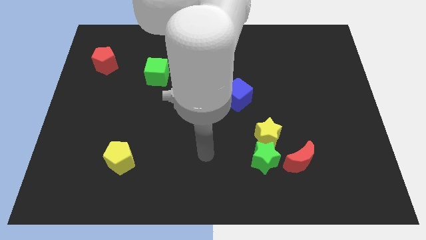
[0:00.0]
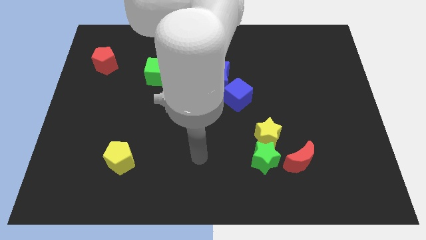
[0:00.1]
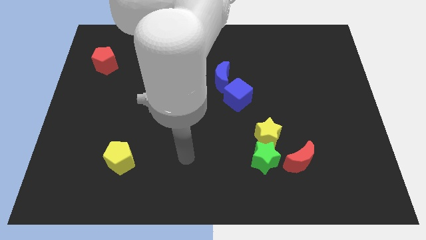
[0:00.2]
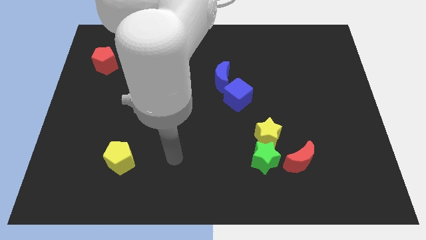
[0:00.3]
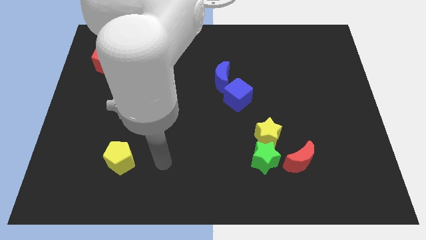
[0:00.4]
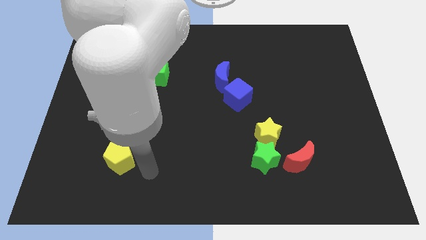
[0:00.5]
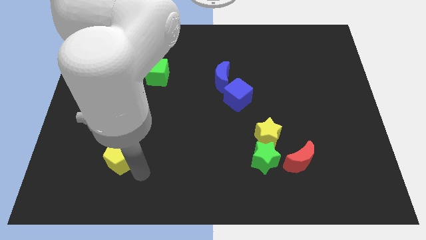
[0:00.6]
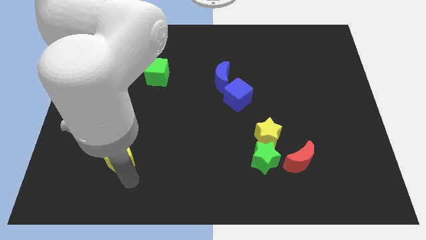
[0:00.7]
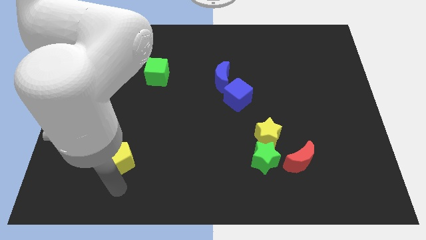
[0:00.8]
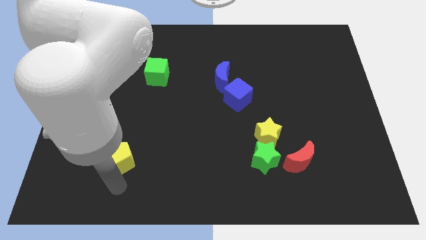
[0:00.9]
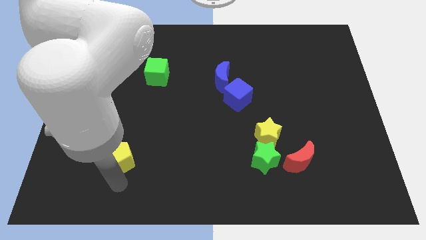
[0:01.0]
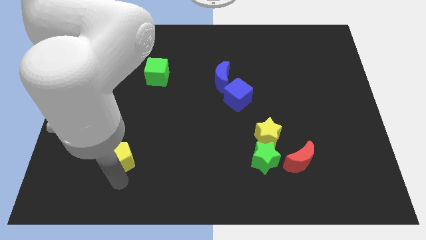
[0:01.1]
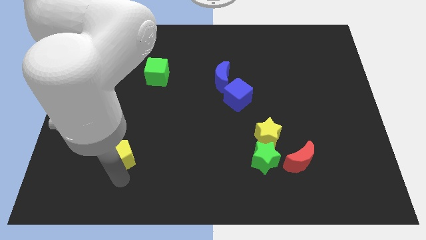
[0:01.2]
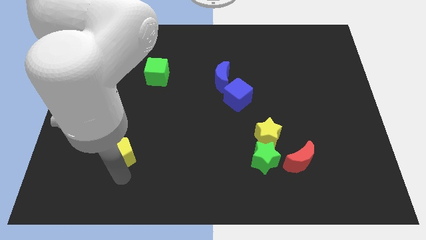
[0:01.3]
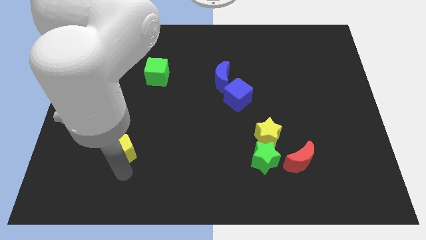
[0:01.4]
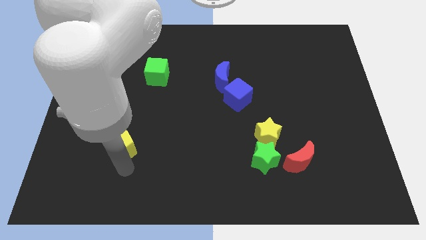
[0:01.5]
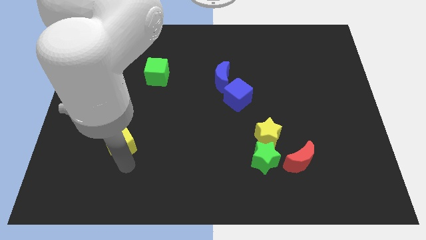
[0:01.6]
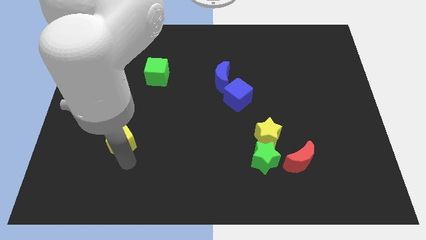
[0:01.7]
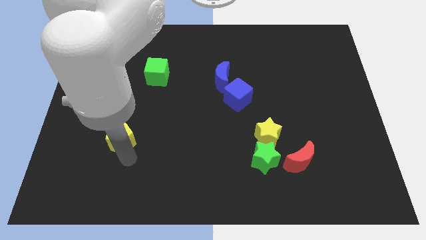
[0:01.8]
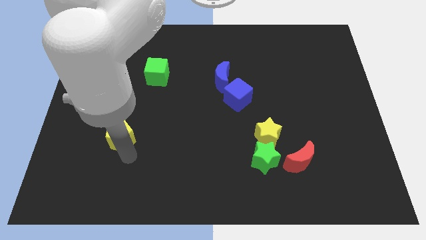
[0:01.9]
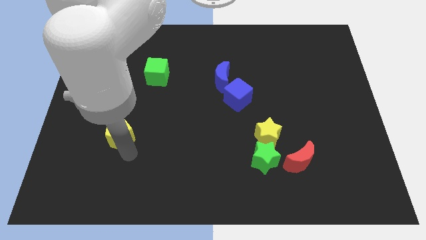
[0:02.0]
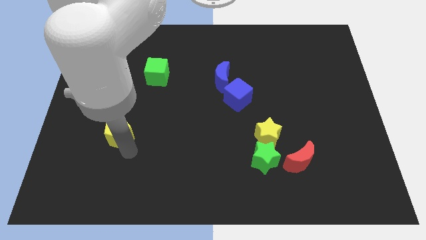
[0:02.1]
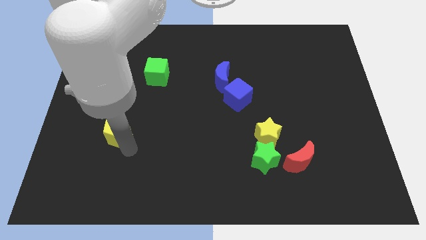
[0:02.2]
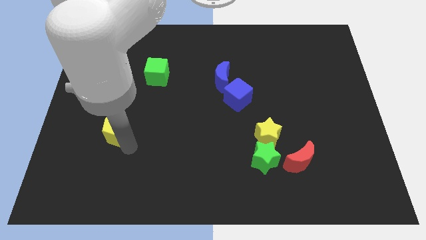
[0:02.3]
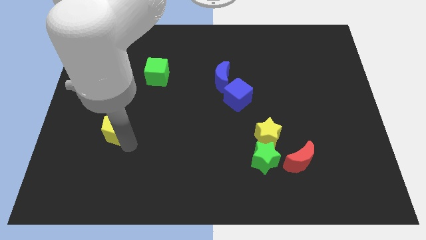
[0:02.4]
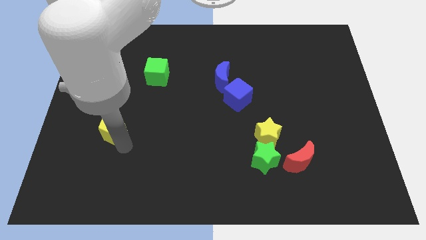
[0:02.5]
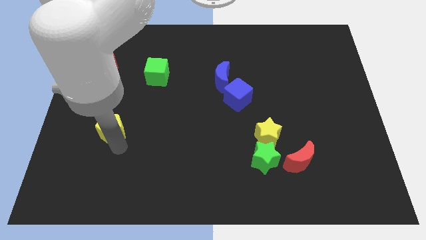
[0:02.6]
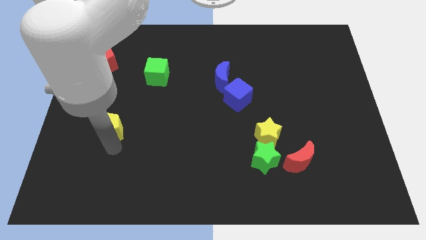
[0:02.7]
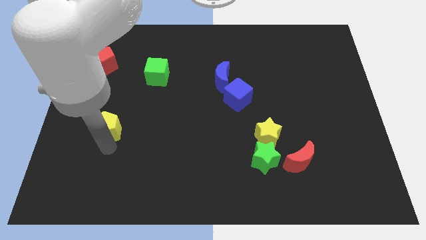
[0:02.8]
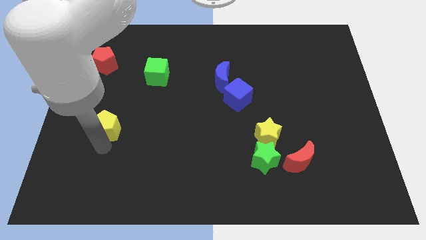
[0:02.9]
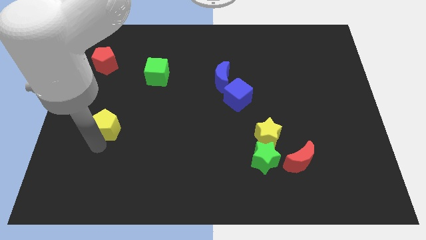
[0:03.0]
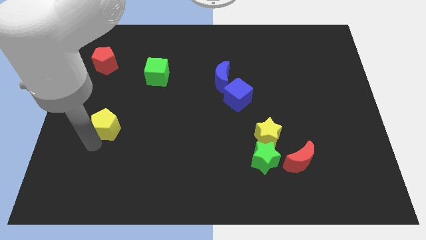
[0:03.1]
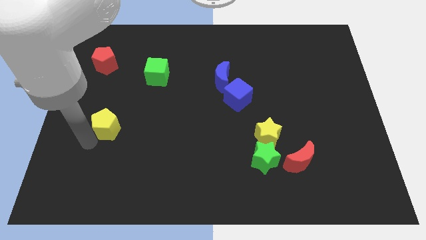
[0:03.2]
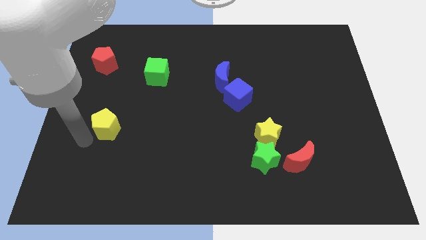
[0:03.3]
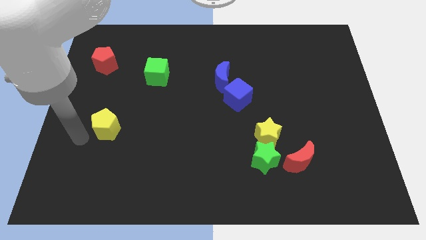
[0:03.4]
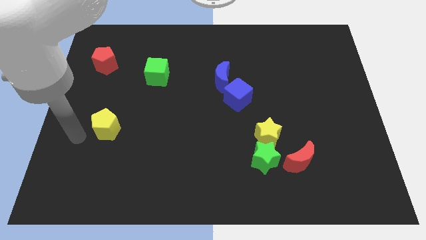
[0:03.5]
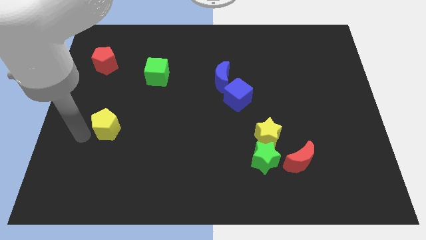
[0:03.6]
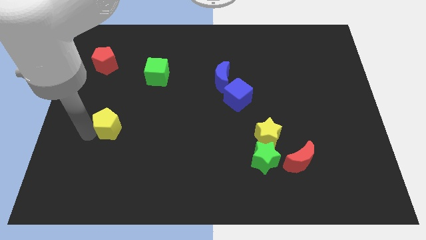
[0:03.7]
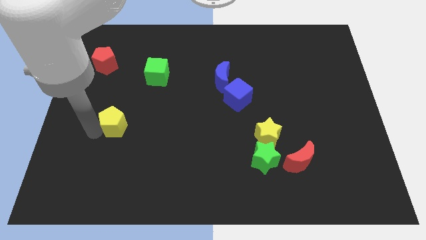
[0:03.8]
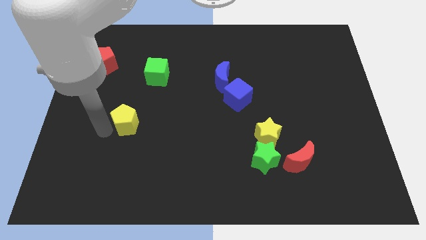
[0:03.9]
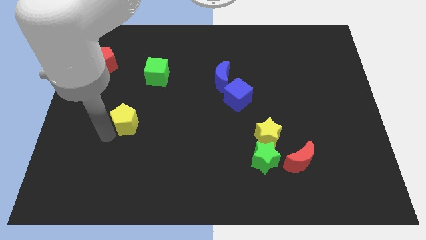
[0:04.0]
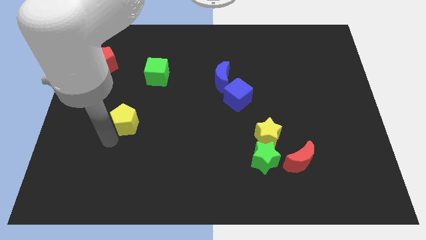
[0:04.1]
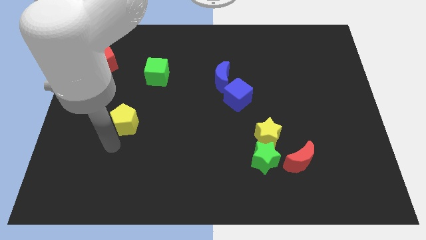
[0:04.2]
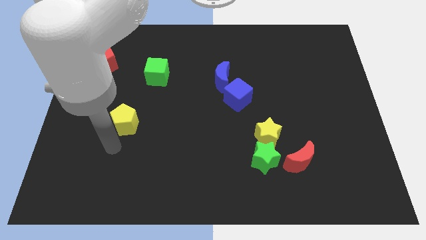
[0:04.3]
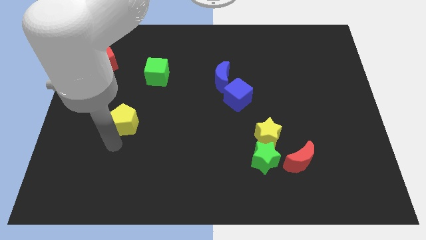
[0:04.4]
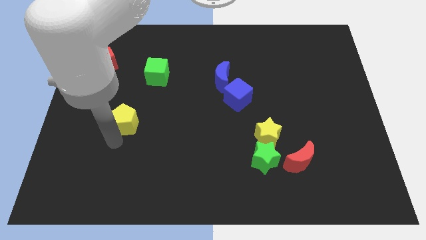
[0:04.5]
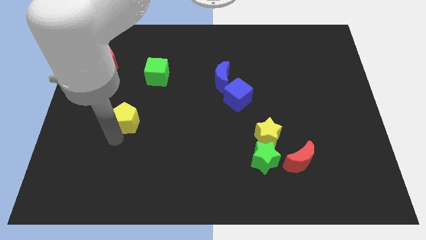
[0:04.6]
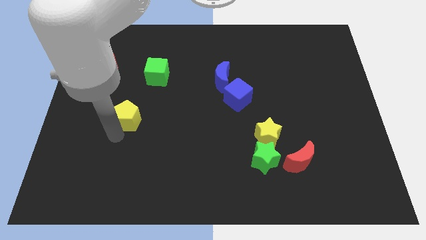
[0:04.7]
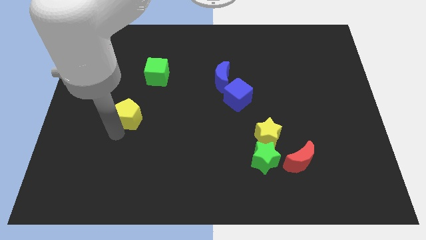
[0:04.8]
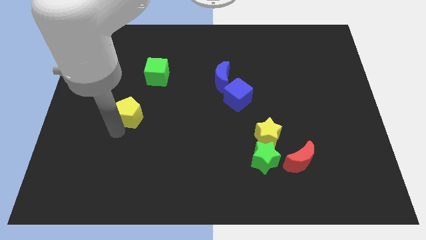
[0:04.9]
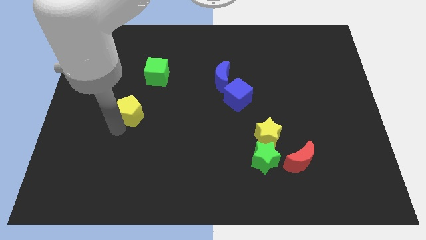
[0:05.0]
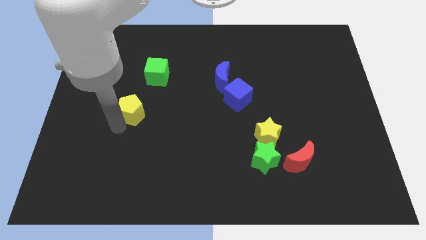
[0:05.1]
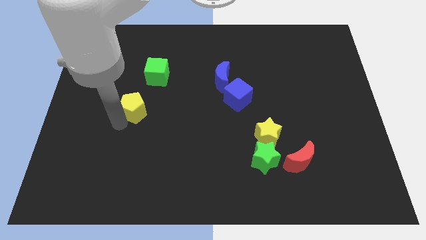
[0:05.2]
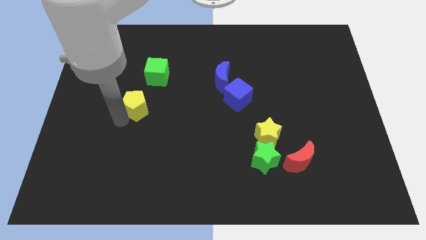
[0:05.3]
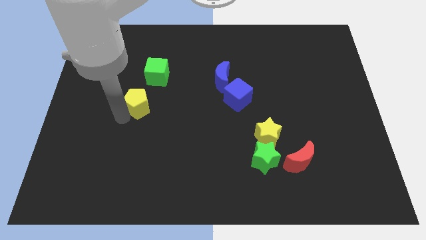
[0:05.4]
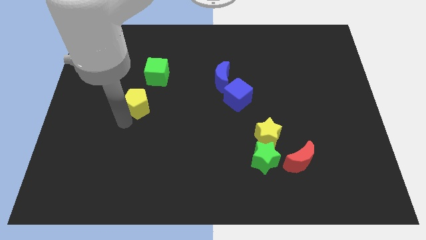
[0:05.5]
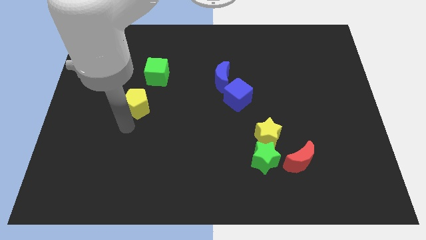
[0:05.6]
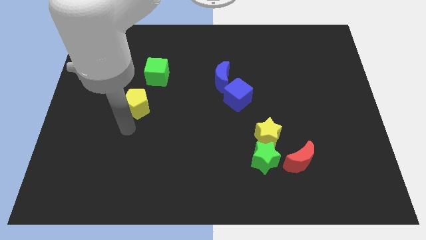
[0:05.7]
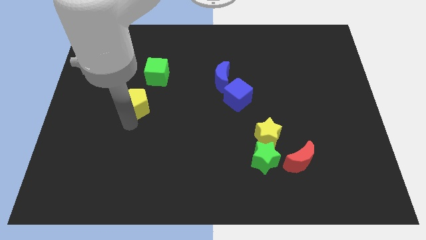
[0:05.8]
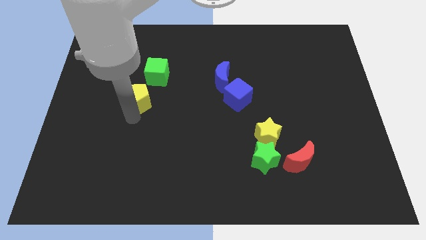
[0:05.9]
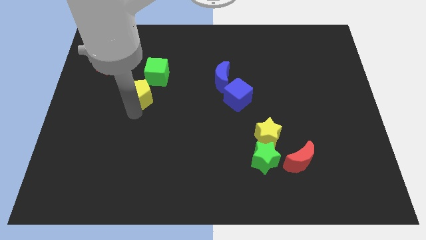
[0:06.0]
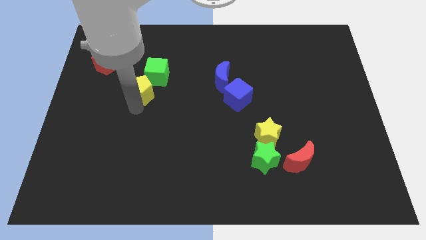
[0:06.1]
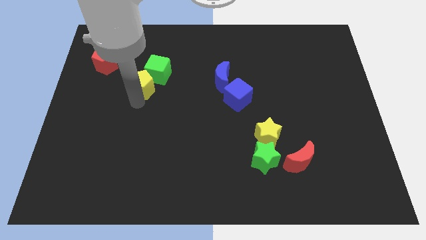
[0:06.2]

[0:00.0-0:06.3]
slide the yellow pentagon next to the green cube
